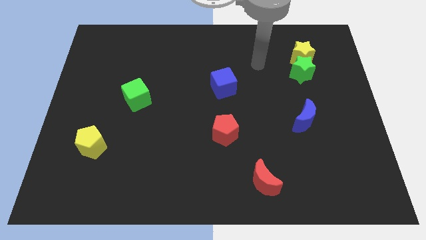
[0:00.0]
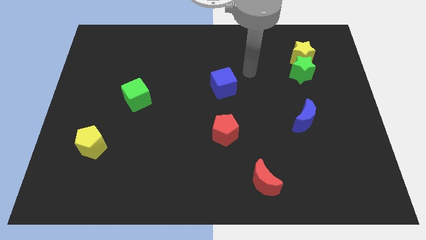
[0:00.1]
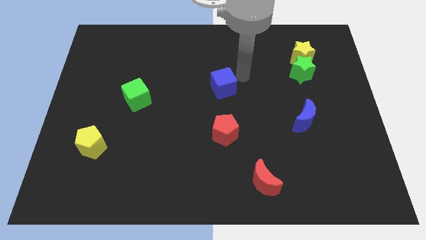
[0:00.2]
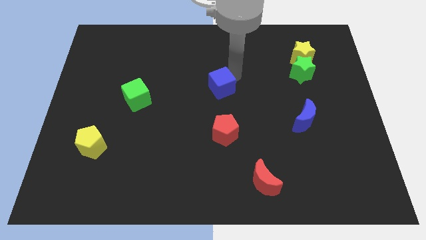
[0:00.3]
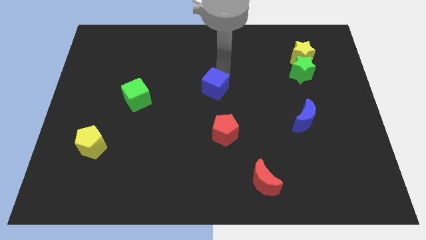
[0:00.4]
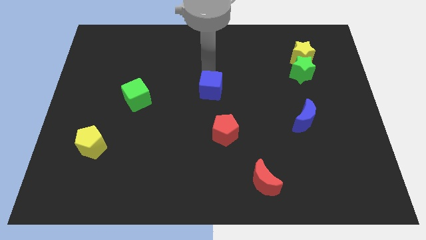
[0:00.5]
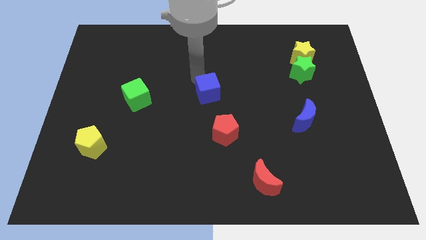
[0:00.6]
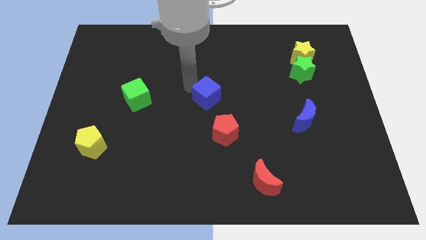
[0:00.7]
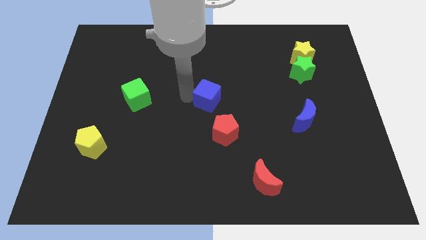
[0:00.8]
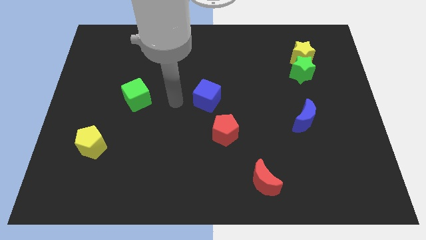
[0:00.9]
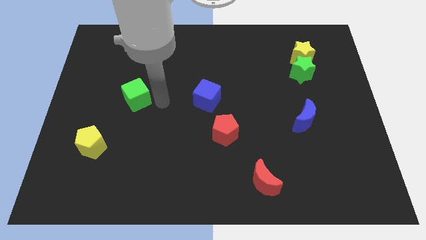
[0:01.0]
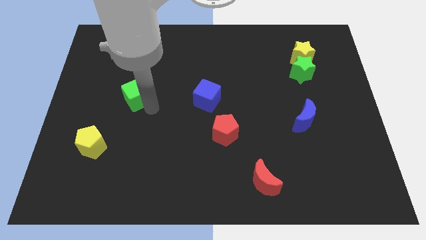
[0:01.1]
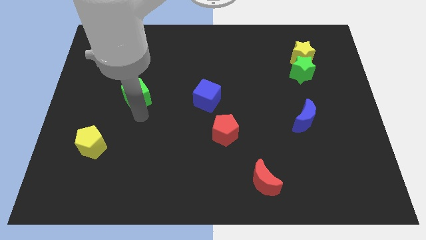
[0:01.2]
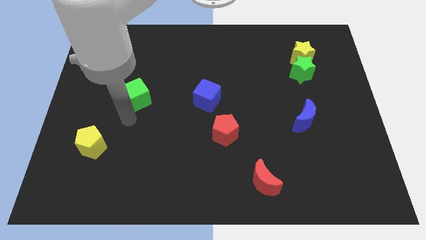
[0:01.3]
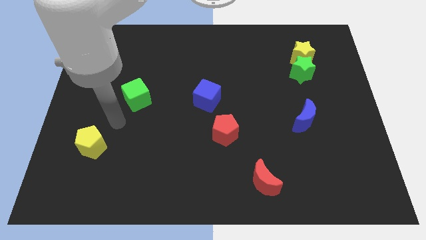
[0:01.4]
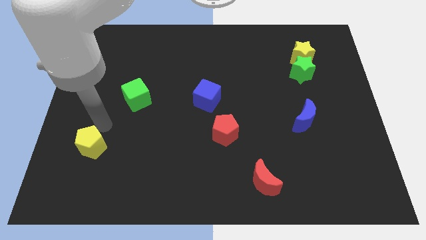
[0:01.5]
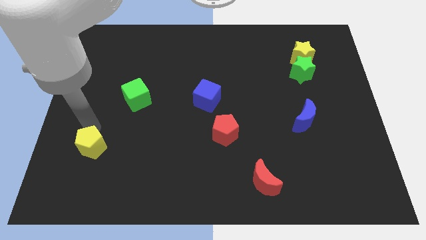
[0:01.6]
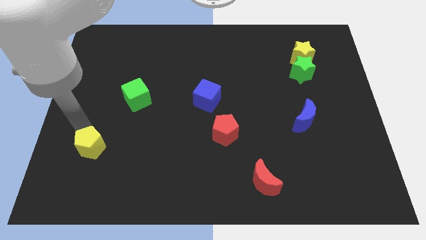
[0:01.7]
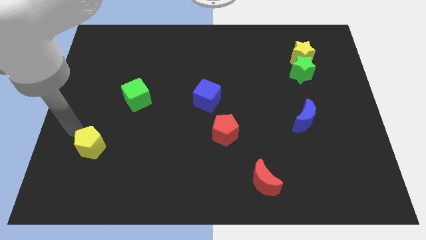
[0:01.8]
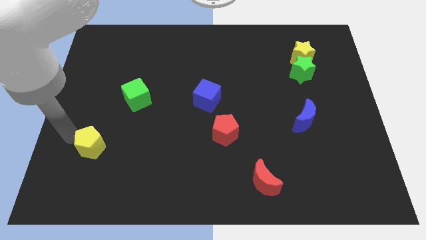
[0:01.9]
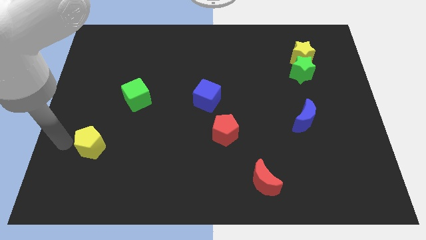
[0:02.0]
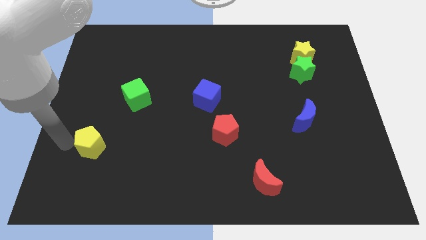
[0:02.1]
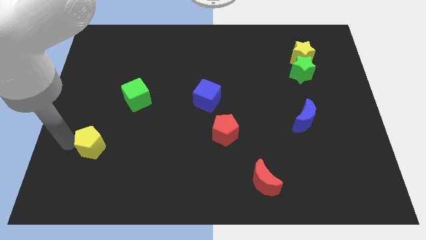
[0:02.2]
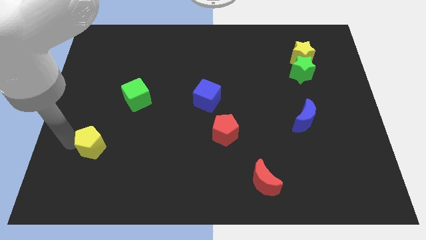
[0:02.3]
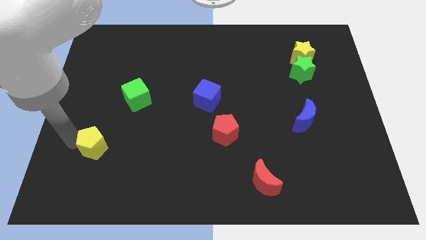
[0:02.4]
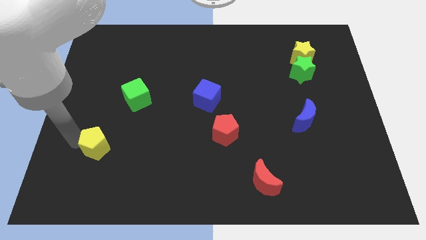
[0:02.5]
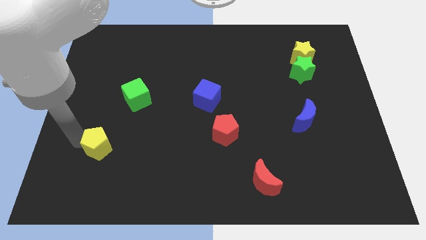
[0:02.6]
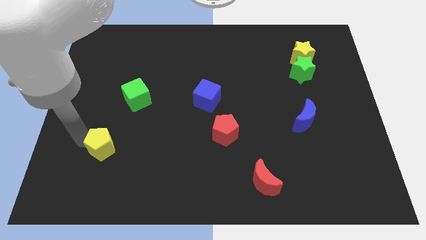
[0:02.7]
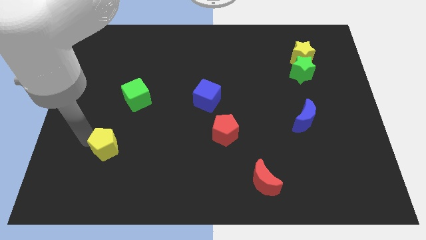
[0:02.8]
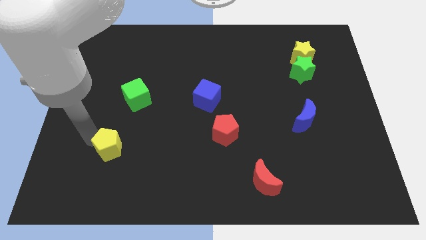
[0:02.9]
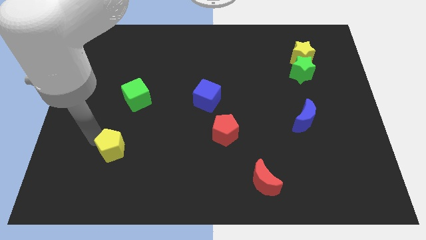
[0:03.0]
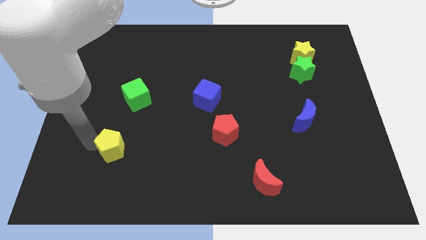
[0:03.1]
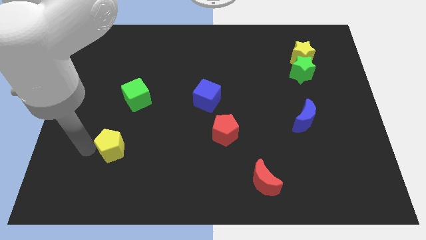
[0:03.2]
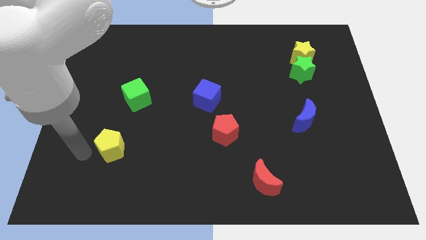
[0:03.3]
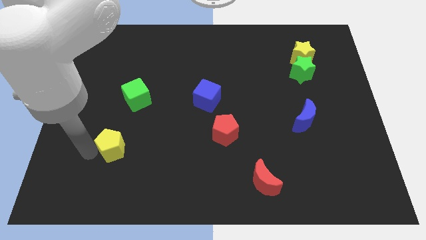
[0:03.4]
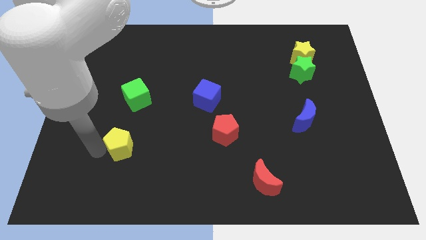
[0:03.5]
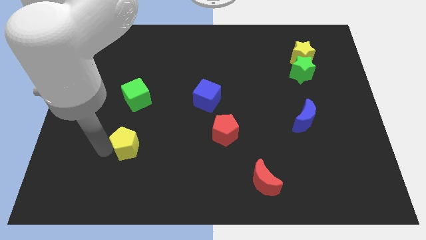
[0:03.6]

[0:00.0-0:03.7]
slide the yellow pentagon right a bit

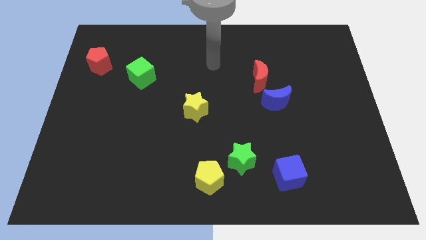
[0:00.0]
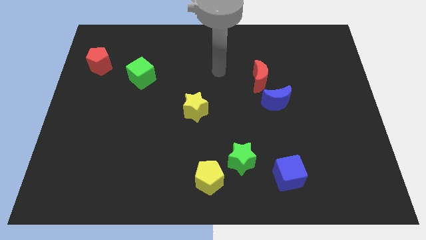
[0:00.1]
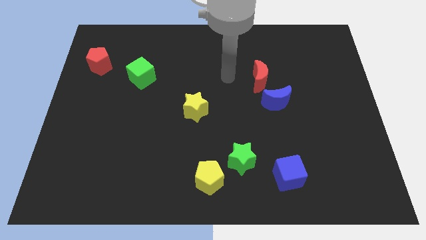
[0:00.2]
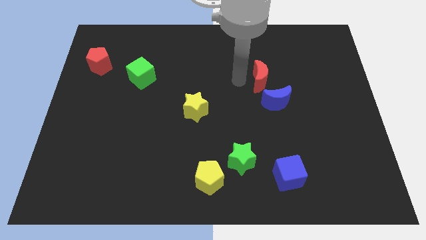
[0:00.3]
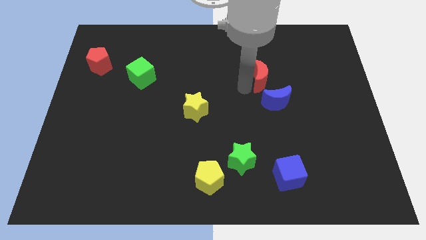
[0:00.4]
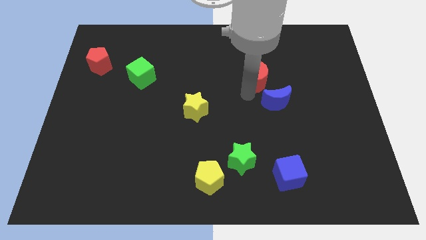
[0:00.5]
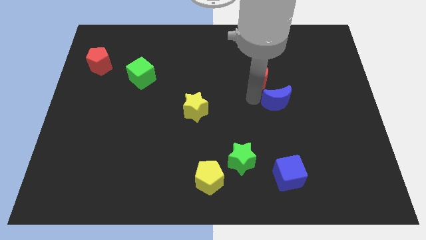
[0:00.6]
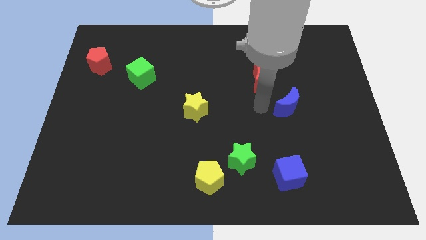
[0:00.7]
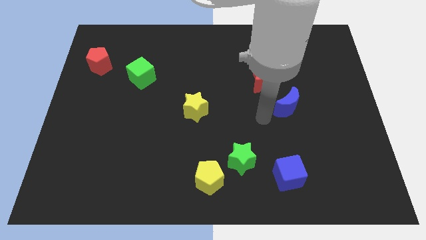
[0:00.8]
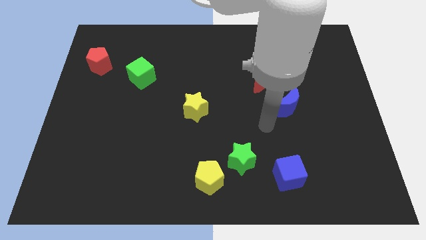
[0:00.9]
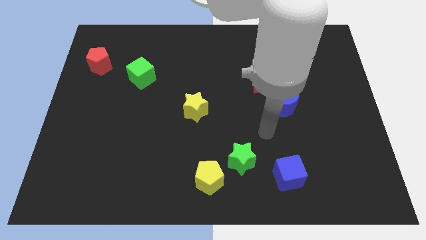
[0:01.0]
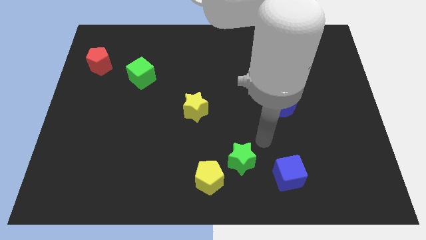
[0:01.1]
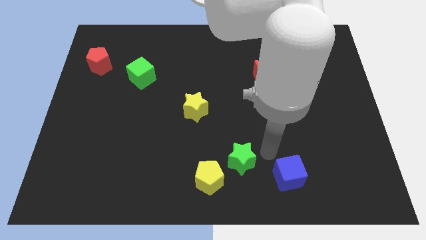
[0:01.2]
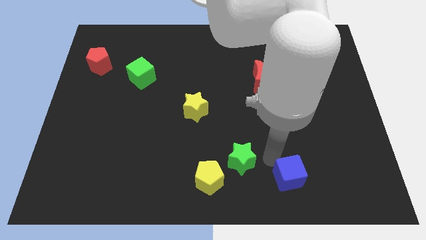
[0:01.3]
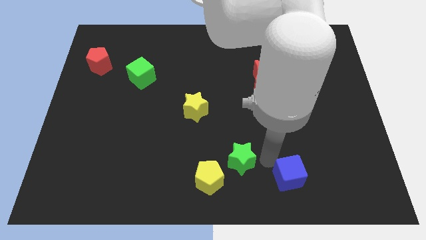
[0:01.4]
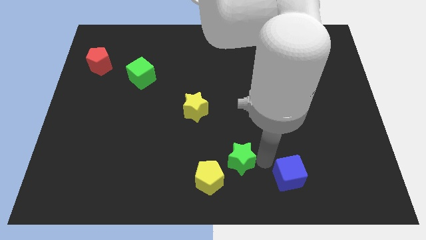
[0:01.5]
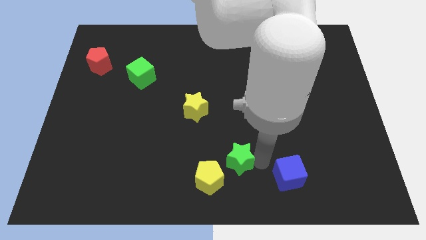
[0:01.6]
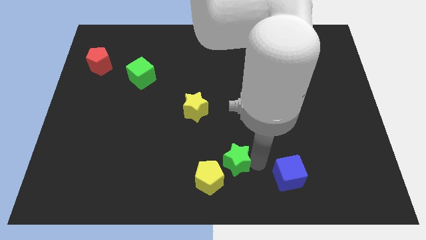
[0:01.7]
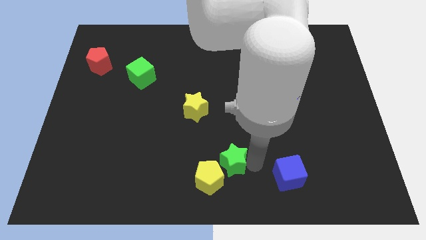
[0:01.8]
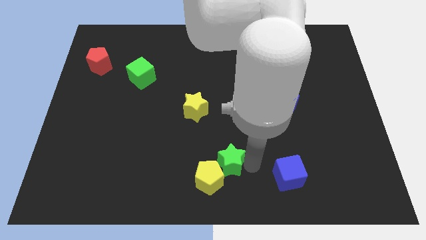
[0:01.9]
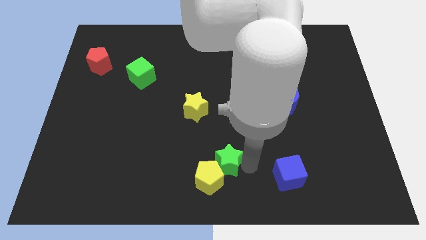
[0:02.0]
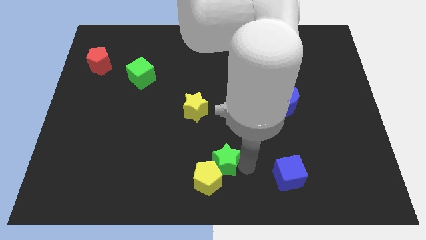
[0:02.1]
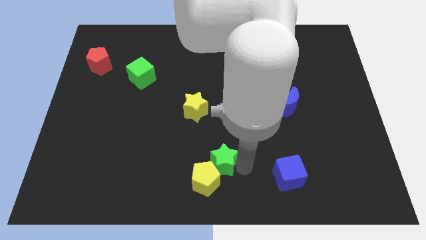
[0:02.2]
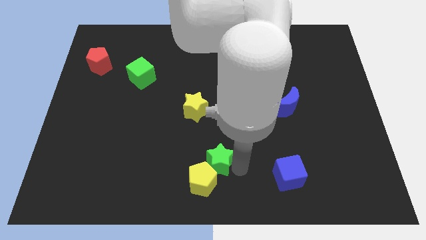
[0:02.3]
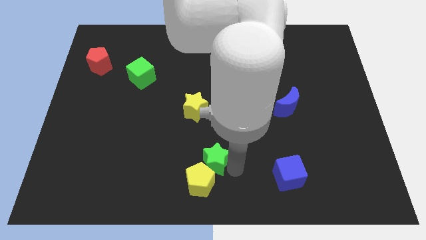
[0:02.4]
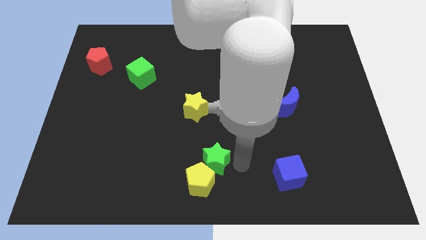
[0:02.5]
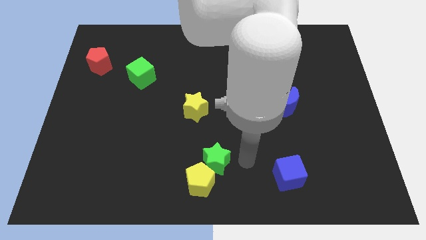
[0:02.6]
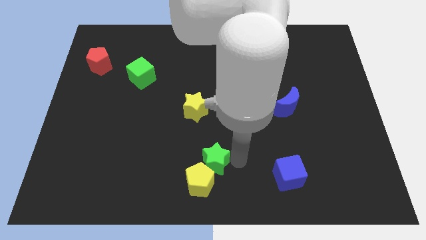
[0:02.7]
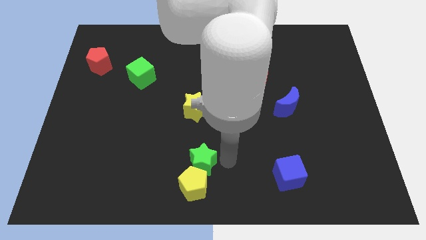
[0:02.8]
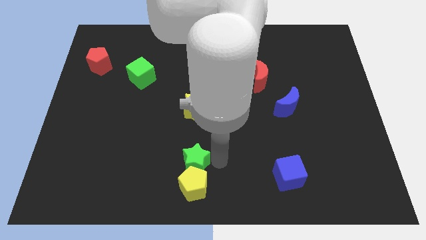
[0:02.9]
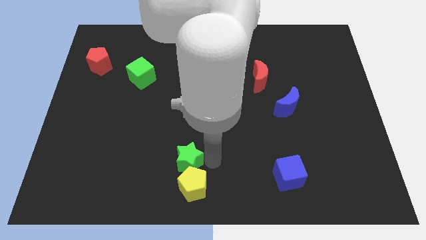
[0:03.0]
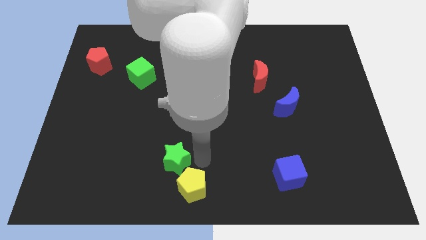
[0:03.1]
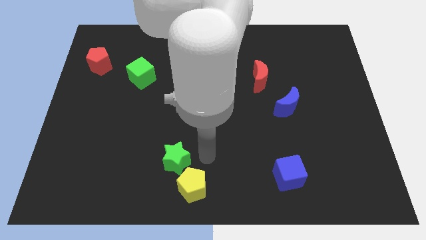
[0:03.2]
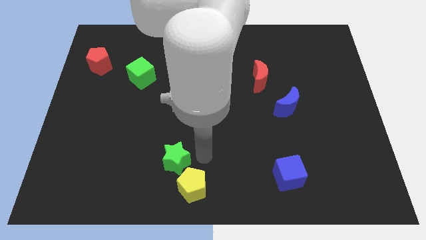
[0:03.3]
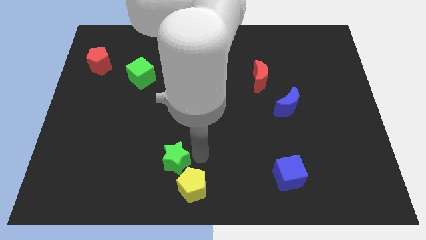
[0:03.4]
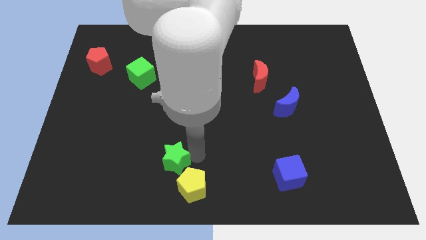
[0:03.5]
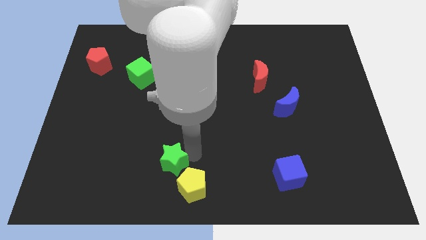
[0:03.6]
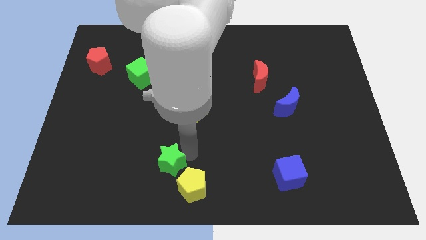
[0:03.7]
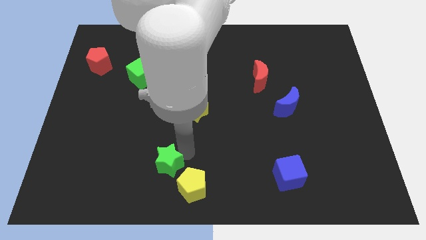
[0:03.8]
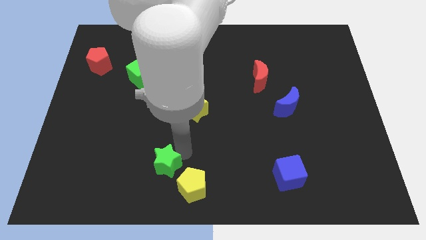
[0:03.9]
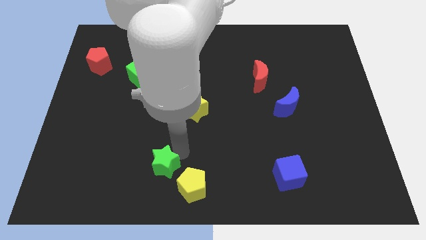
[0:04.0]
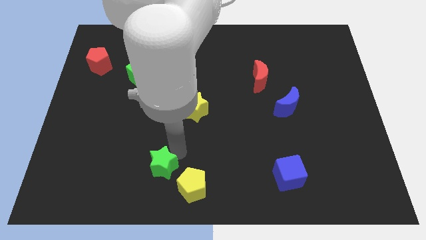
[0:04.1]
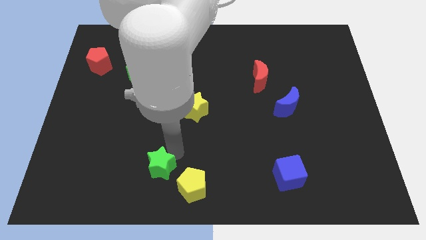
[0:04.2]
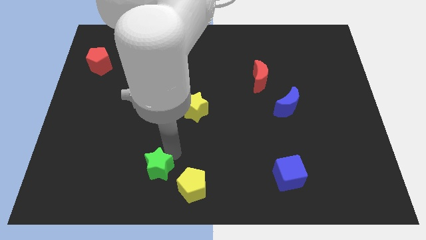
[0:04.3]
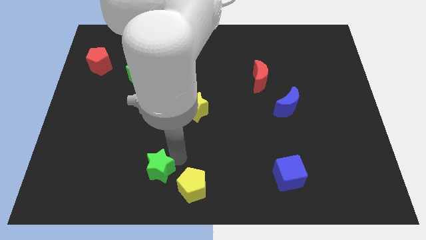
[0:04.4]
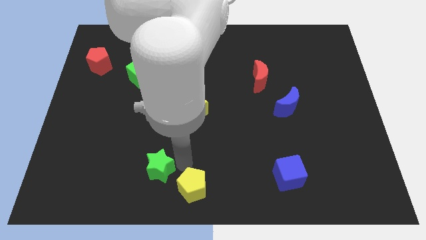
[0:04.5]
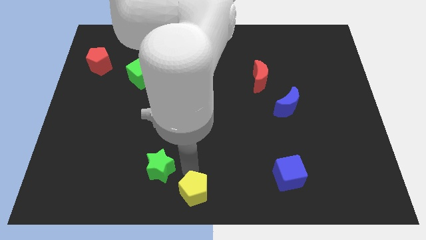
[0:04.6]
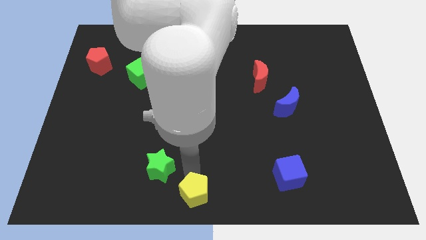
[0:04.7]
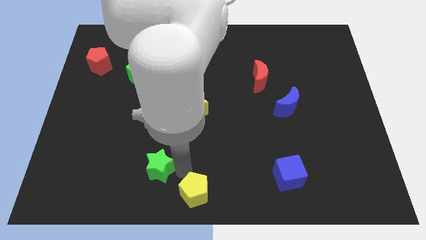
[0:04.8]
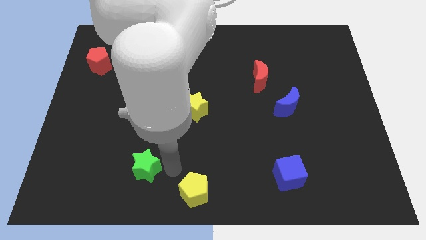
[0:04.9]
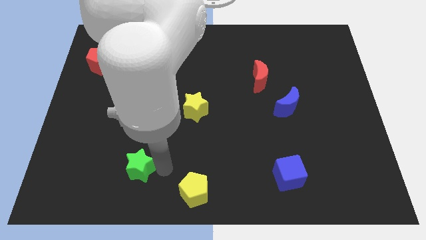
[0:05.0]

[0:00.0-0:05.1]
push the green star left
